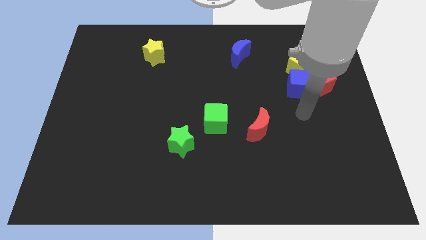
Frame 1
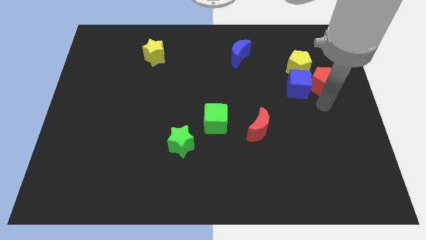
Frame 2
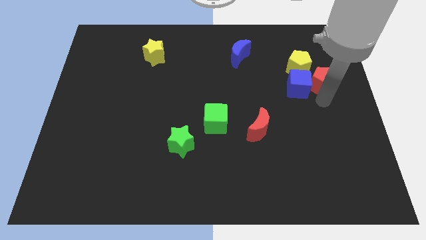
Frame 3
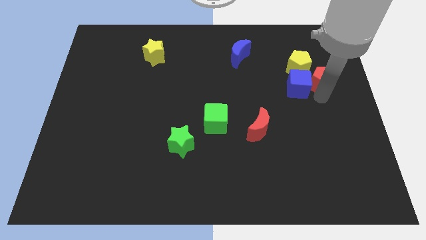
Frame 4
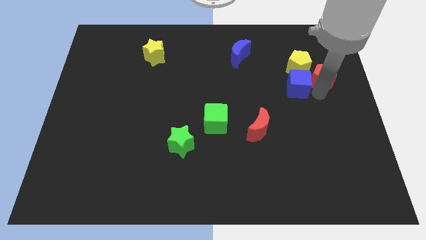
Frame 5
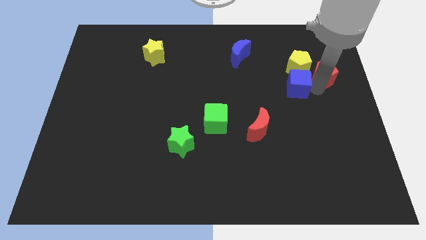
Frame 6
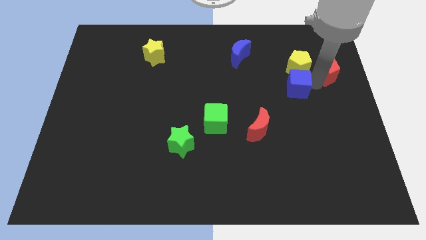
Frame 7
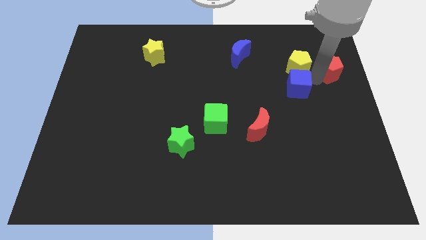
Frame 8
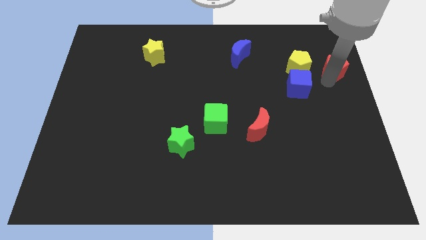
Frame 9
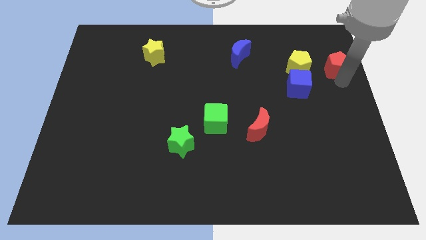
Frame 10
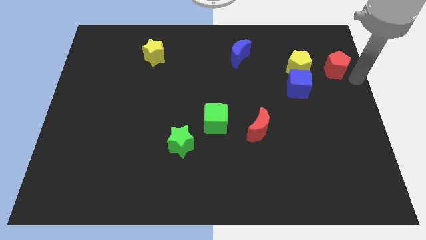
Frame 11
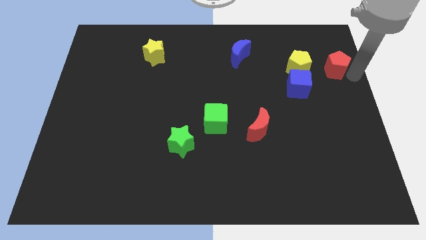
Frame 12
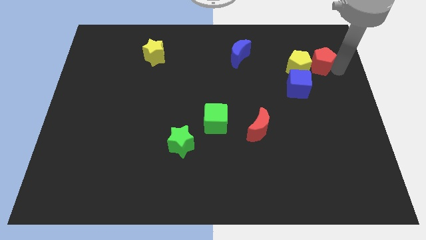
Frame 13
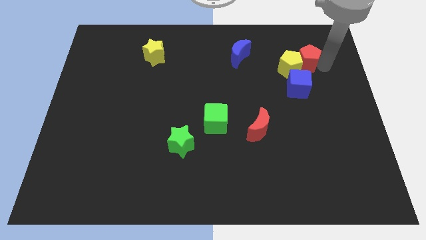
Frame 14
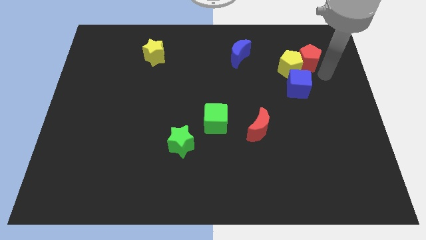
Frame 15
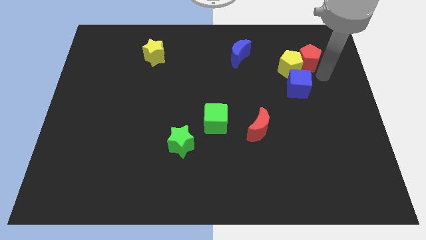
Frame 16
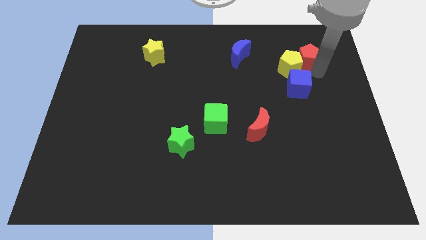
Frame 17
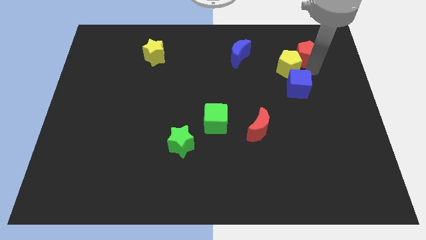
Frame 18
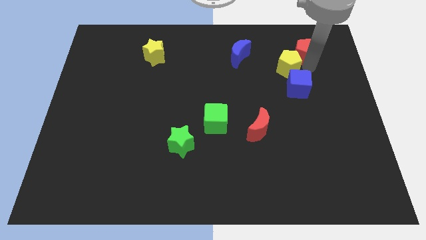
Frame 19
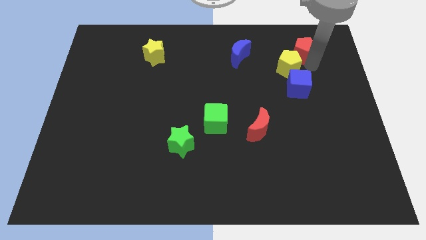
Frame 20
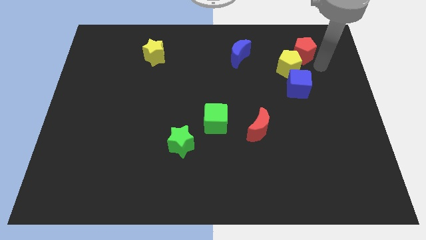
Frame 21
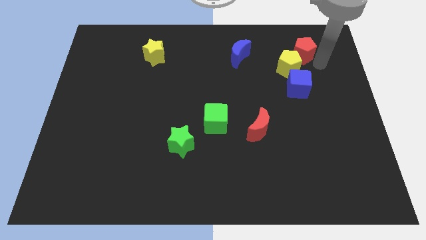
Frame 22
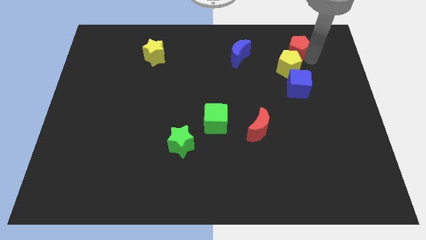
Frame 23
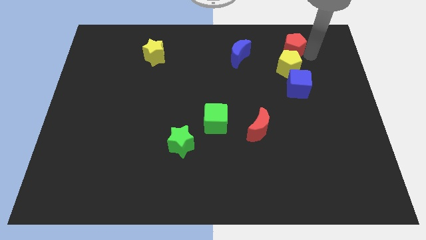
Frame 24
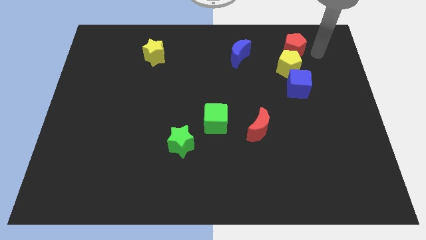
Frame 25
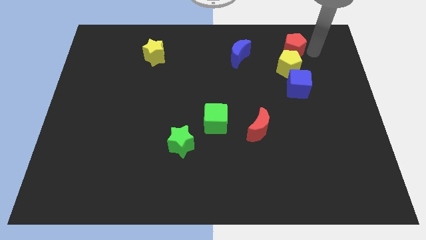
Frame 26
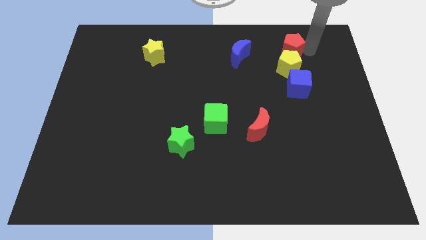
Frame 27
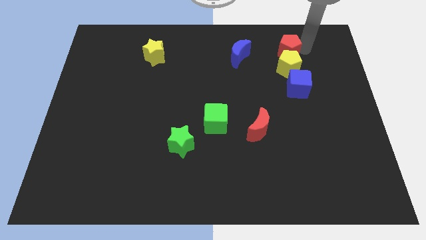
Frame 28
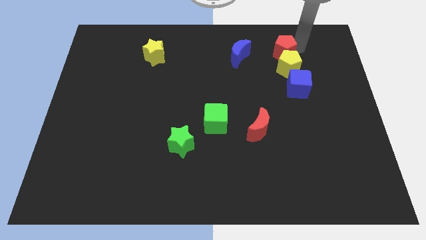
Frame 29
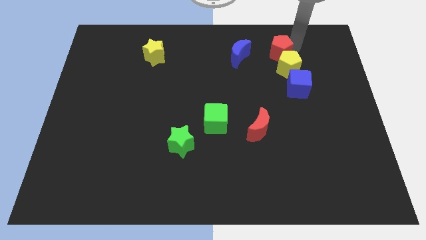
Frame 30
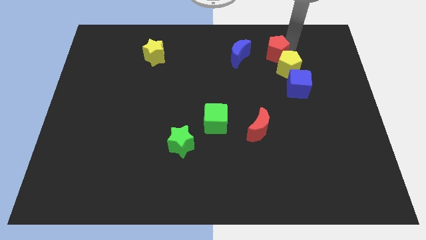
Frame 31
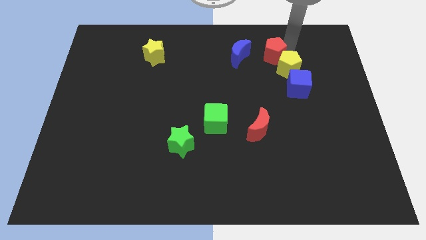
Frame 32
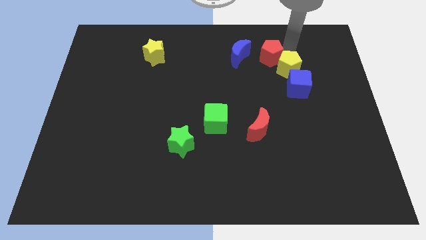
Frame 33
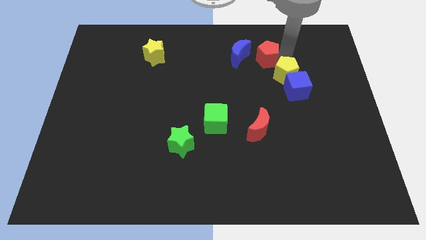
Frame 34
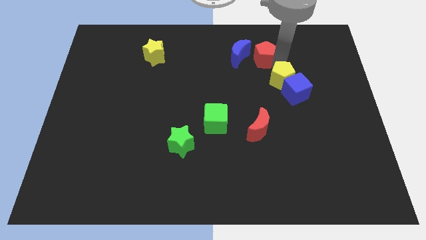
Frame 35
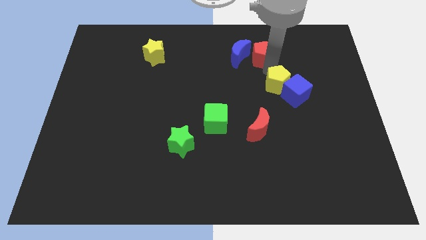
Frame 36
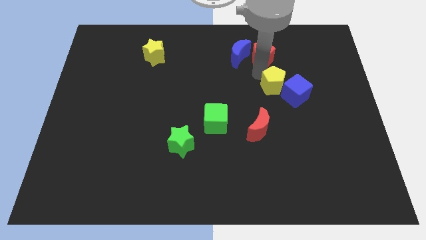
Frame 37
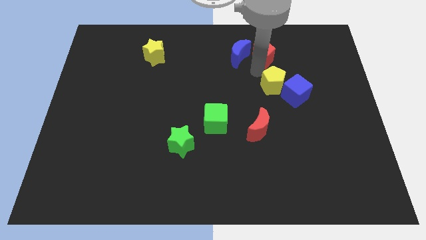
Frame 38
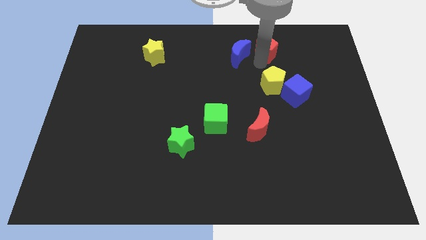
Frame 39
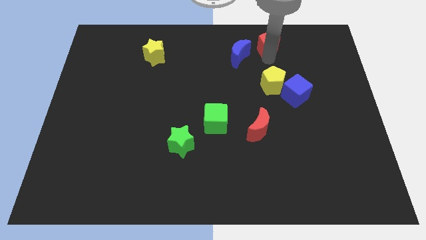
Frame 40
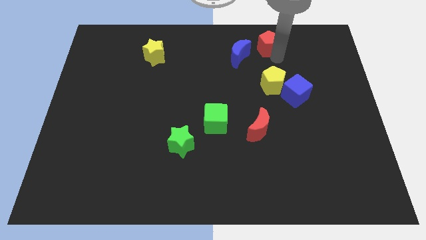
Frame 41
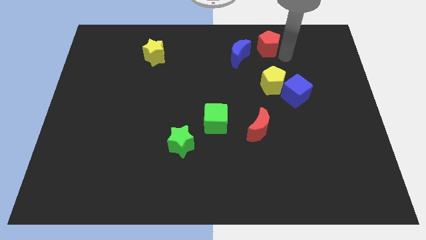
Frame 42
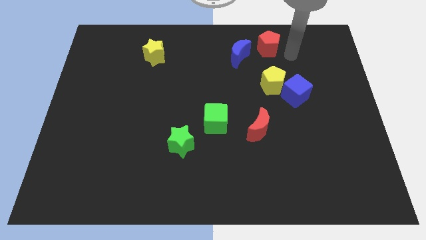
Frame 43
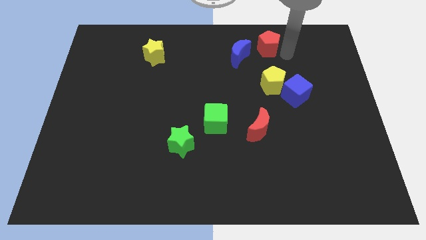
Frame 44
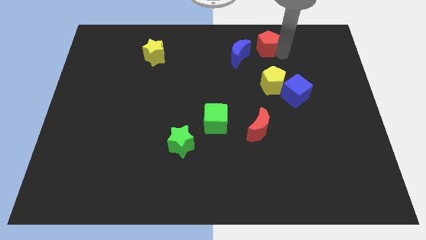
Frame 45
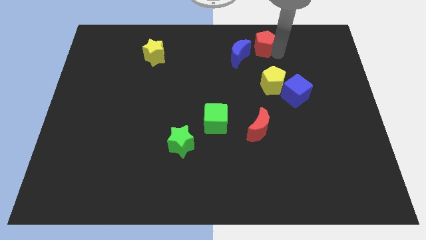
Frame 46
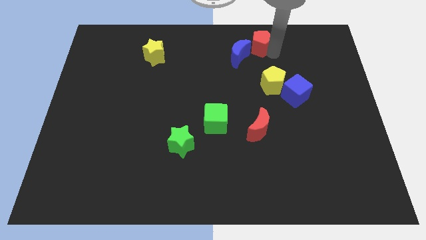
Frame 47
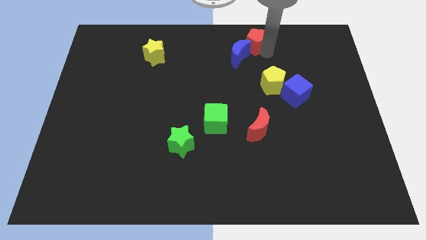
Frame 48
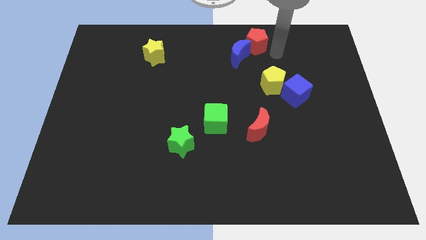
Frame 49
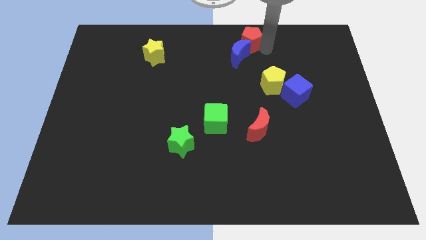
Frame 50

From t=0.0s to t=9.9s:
slide the red pentagon to the towards your base

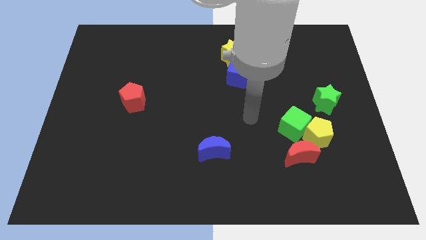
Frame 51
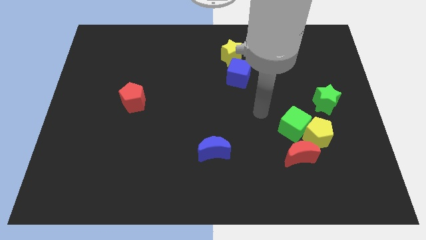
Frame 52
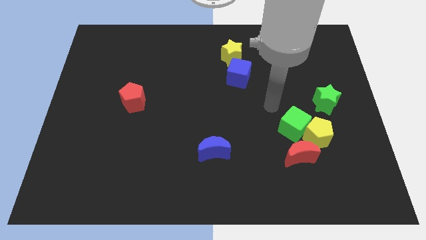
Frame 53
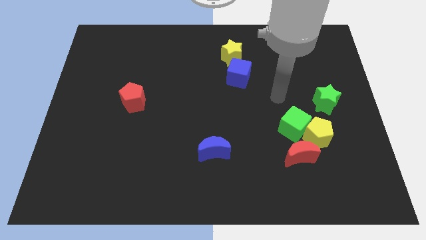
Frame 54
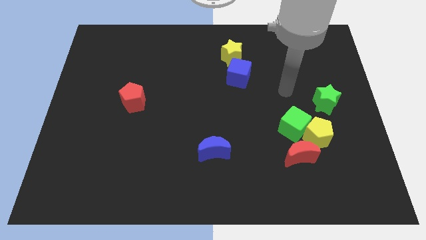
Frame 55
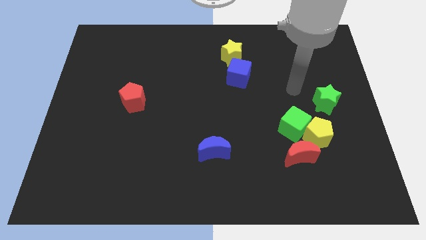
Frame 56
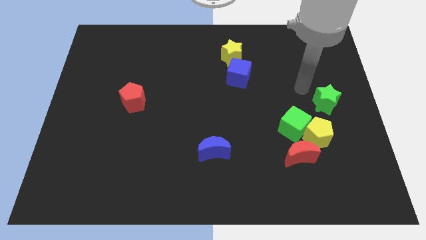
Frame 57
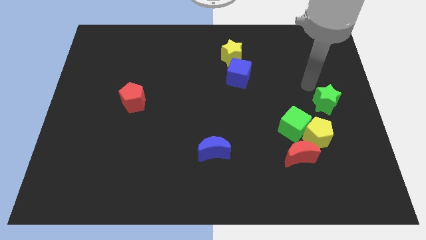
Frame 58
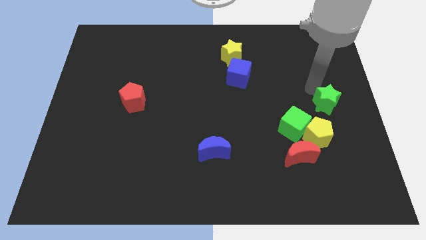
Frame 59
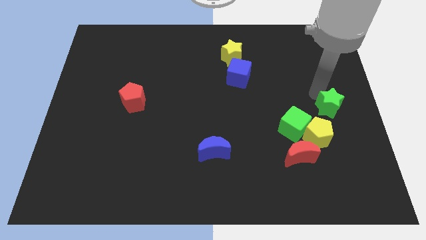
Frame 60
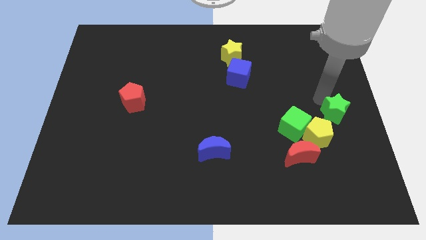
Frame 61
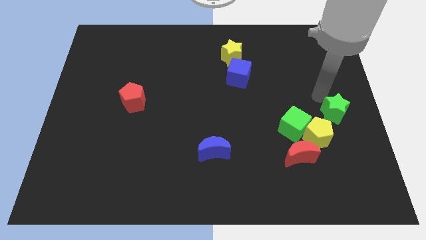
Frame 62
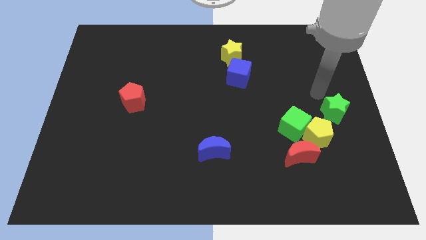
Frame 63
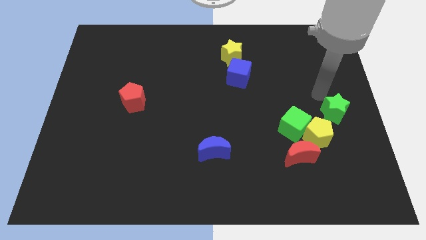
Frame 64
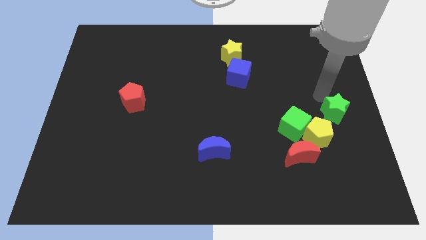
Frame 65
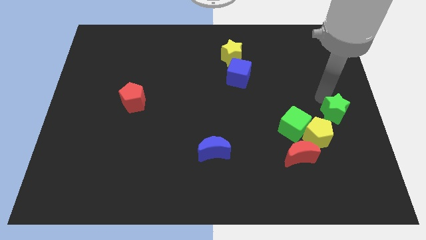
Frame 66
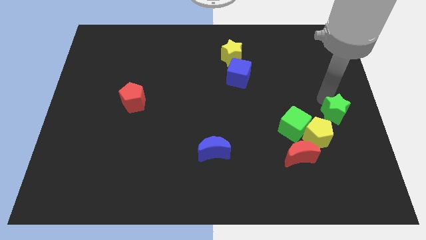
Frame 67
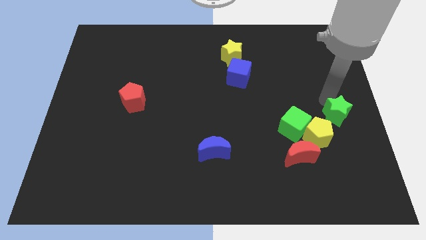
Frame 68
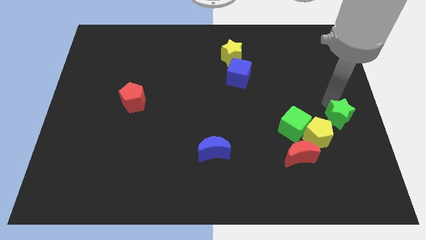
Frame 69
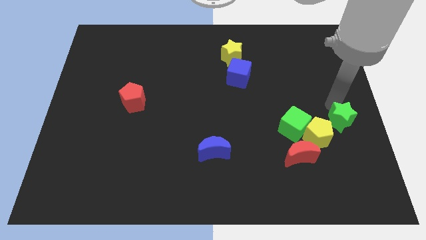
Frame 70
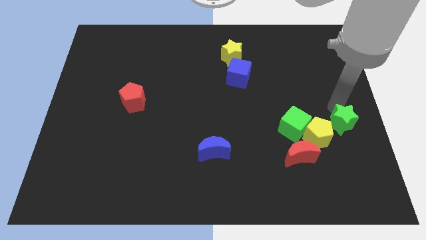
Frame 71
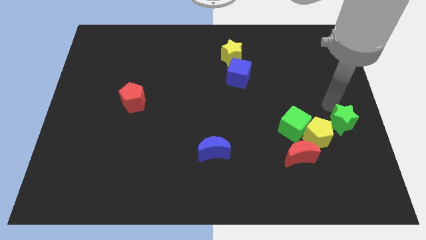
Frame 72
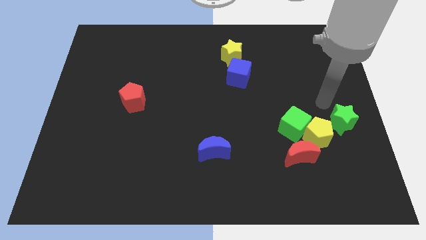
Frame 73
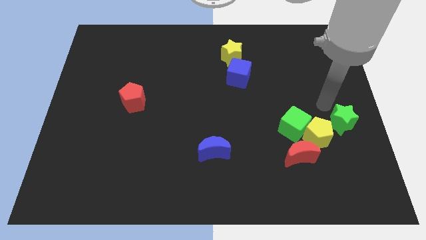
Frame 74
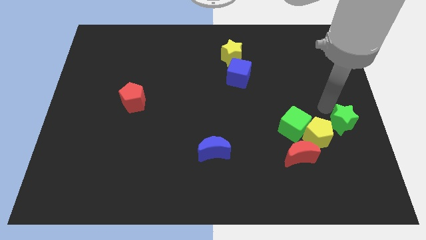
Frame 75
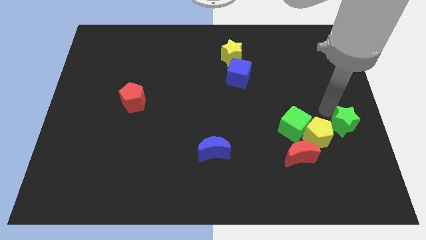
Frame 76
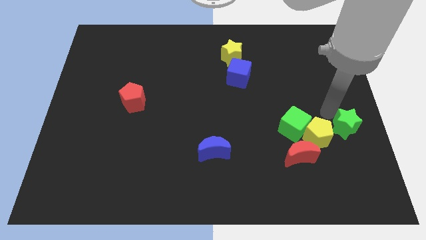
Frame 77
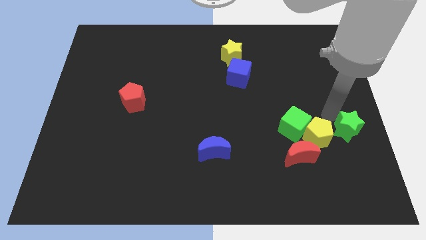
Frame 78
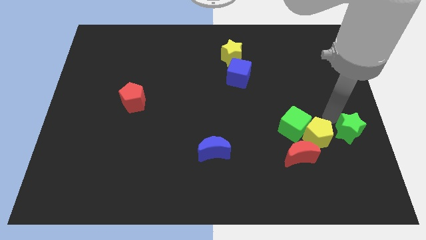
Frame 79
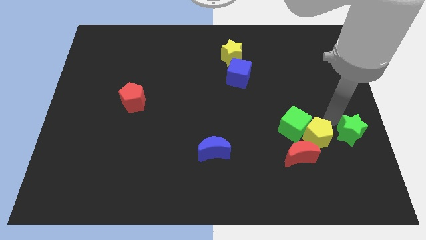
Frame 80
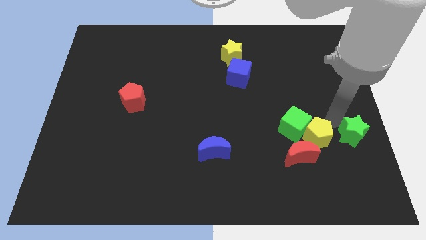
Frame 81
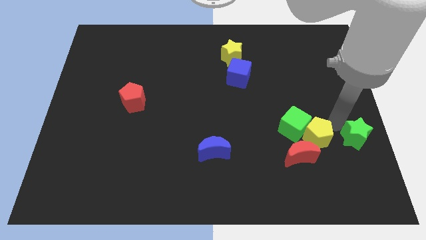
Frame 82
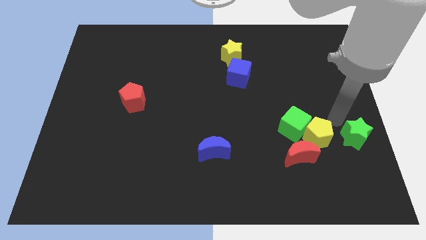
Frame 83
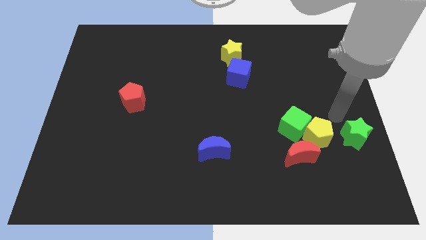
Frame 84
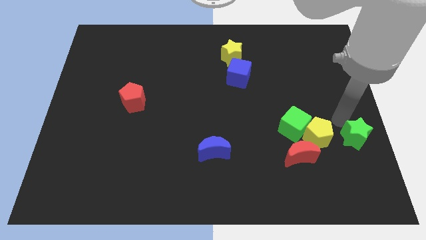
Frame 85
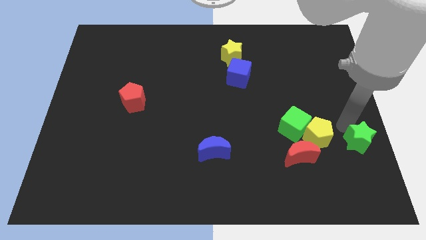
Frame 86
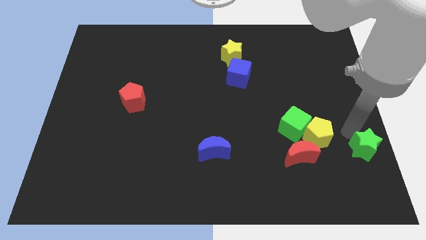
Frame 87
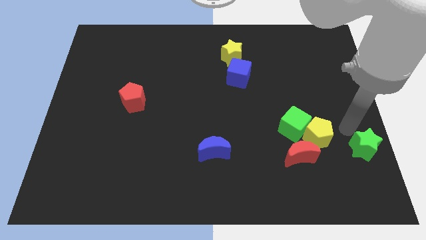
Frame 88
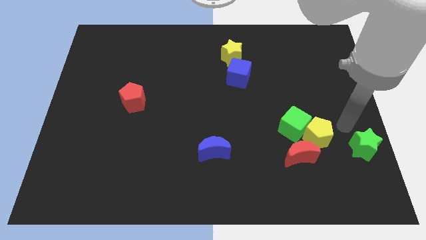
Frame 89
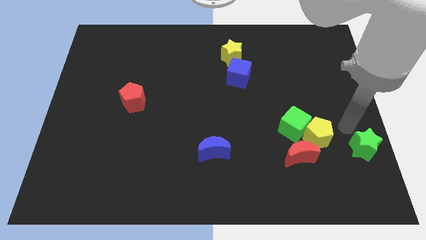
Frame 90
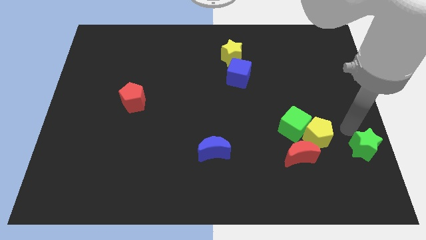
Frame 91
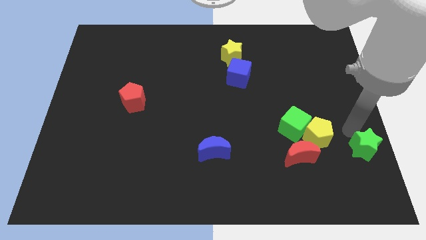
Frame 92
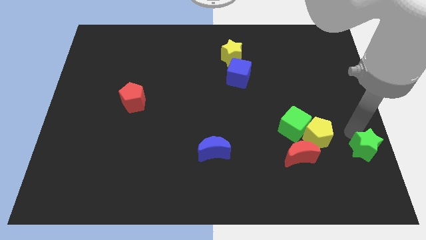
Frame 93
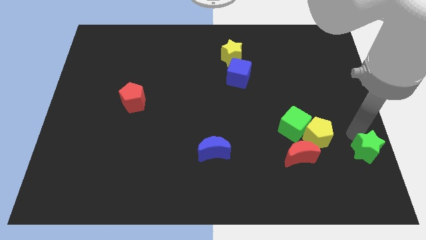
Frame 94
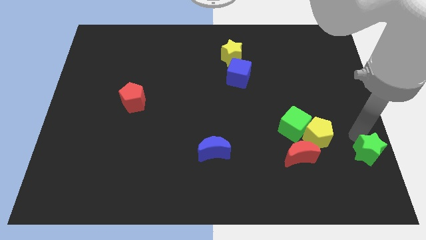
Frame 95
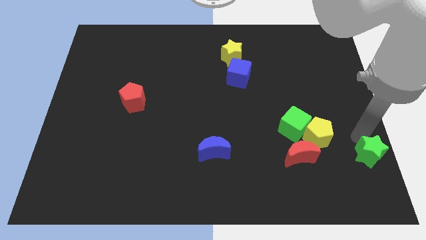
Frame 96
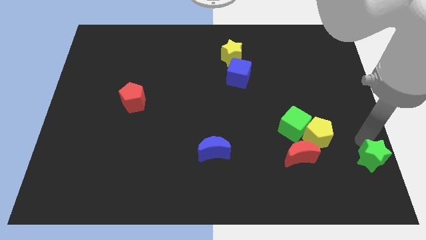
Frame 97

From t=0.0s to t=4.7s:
slide the green star to the bottom right corner
